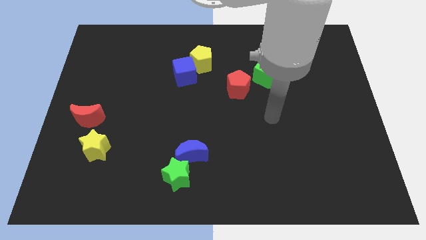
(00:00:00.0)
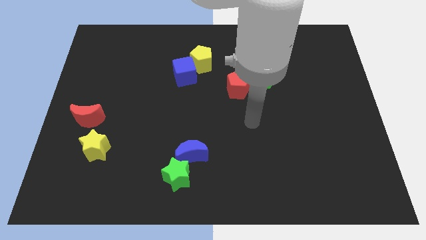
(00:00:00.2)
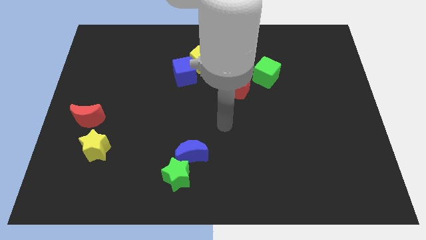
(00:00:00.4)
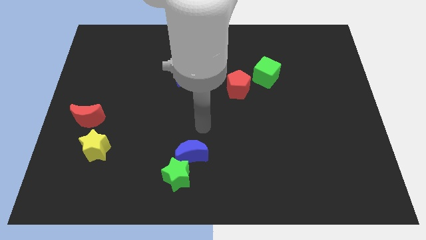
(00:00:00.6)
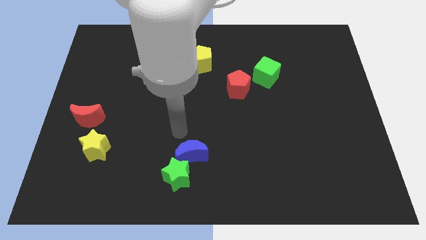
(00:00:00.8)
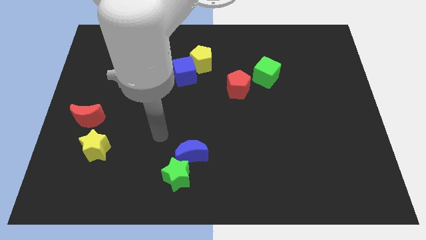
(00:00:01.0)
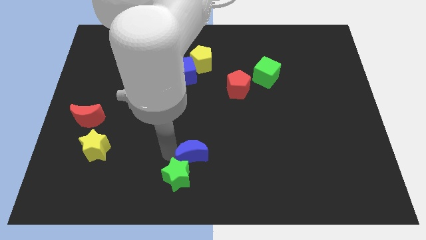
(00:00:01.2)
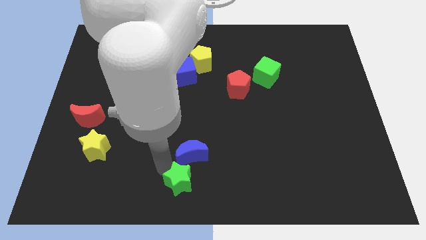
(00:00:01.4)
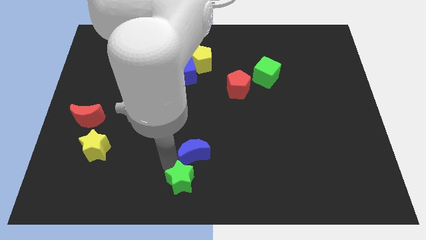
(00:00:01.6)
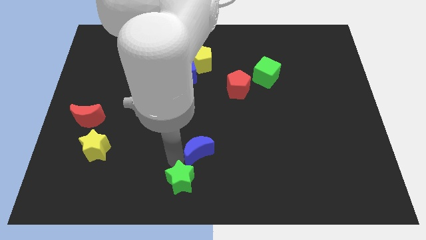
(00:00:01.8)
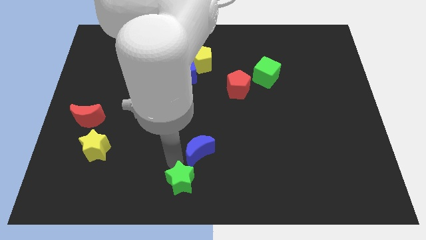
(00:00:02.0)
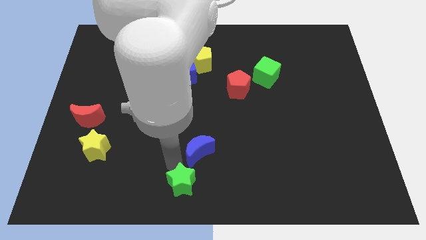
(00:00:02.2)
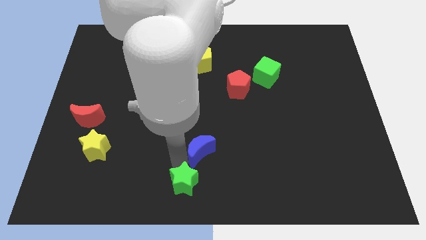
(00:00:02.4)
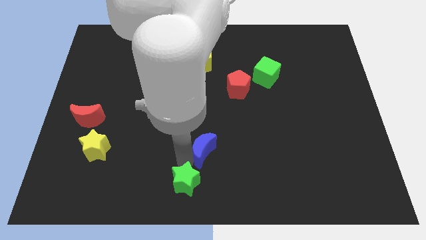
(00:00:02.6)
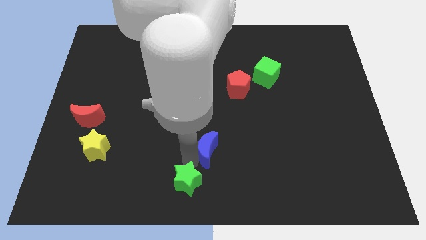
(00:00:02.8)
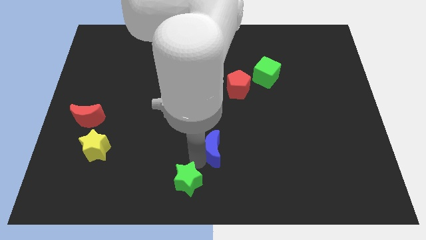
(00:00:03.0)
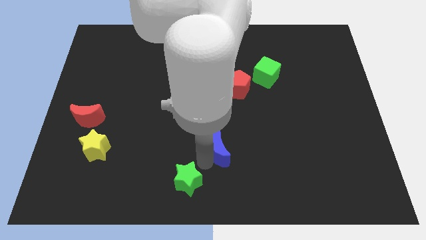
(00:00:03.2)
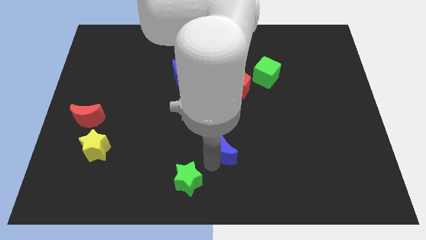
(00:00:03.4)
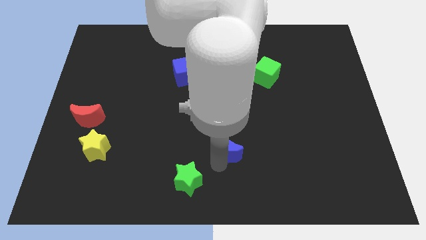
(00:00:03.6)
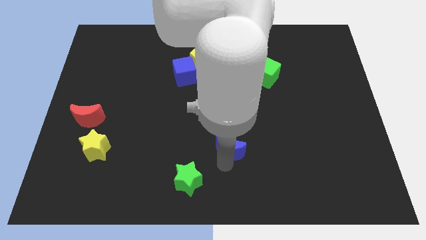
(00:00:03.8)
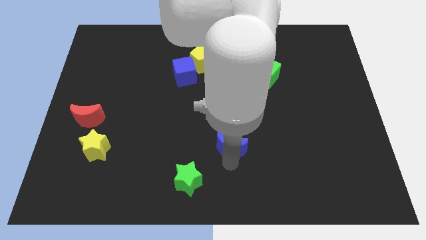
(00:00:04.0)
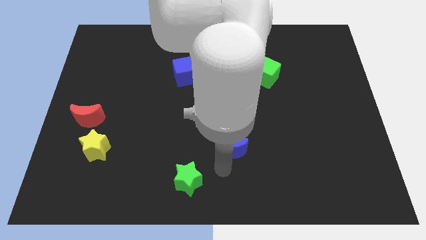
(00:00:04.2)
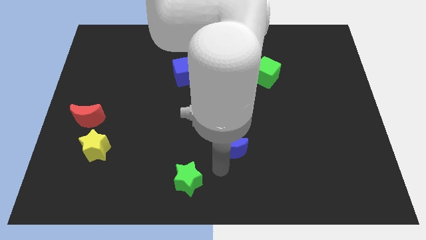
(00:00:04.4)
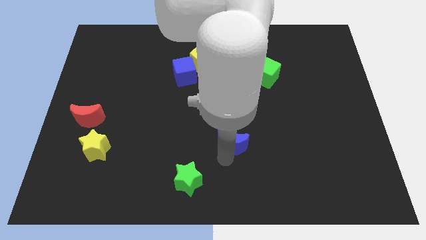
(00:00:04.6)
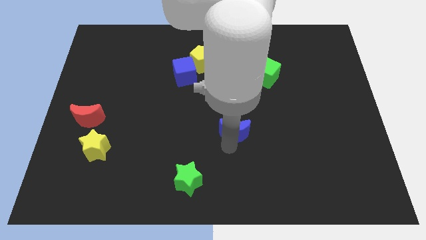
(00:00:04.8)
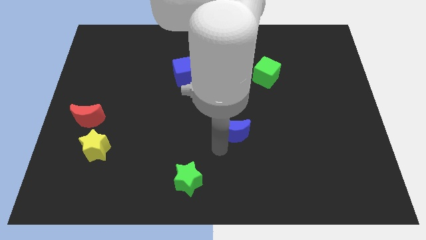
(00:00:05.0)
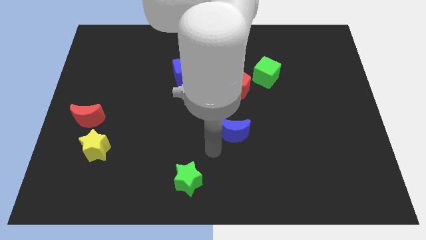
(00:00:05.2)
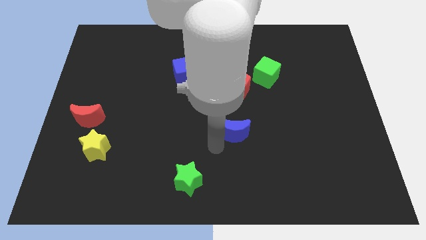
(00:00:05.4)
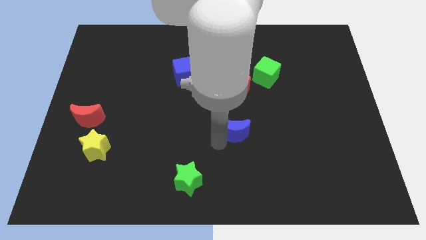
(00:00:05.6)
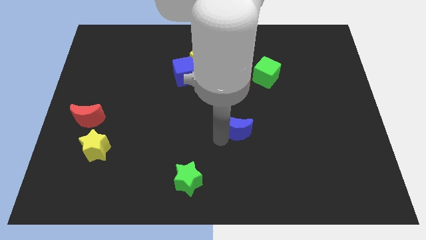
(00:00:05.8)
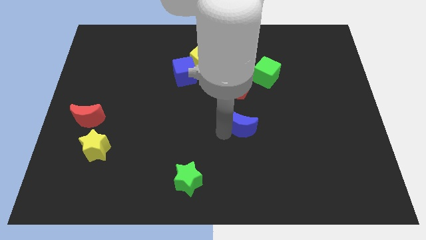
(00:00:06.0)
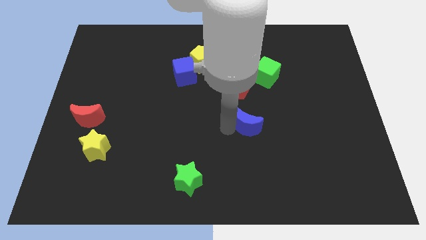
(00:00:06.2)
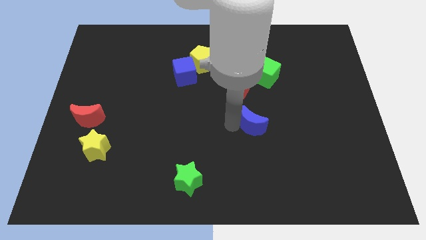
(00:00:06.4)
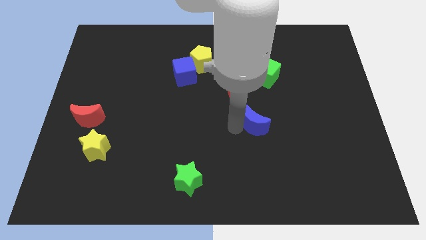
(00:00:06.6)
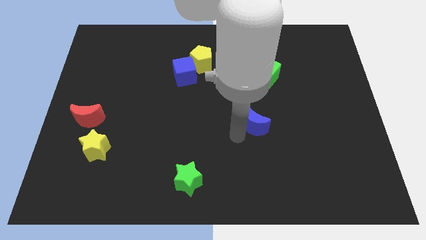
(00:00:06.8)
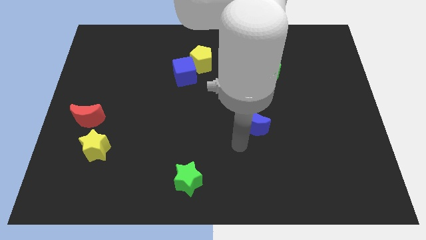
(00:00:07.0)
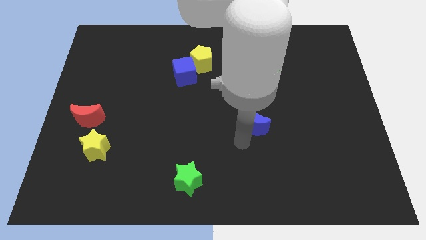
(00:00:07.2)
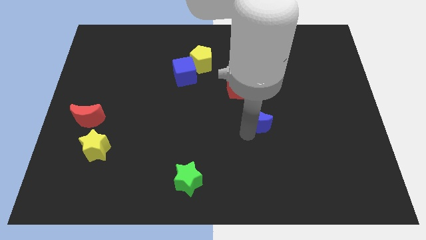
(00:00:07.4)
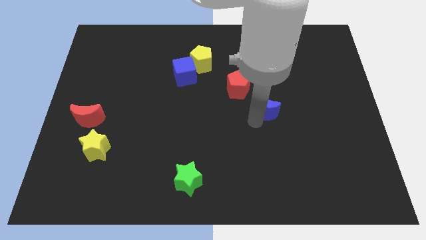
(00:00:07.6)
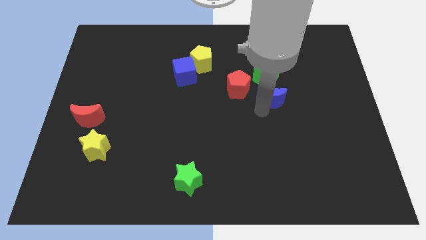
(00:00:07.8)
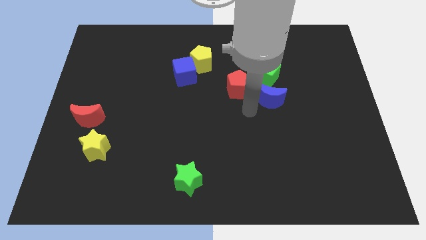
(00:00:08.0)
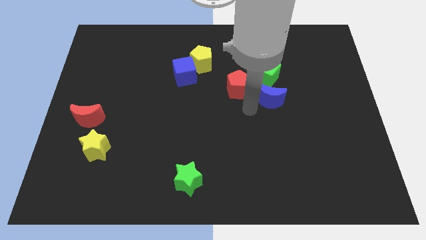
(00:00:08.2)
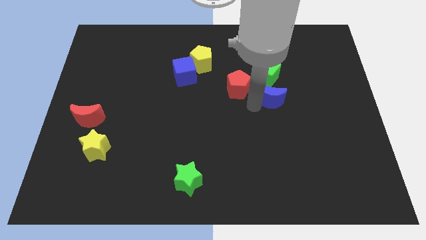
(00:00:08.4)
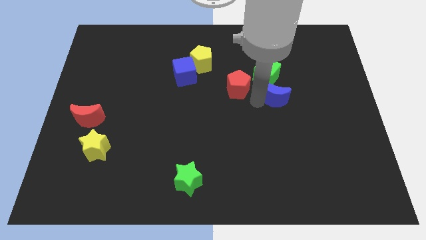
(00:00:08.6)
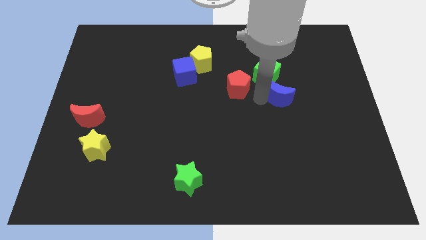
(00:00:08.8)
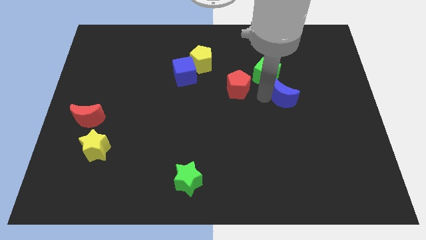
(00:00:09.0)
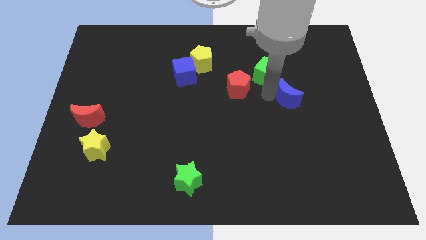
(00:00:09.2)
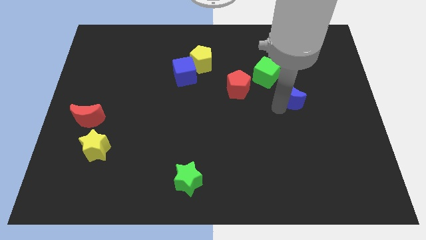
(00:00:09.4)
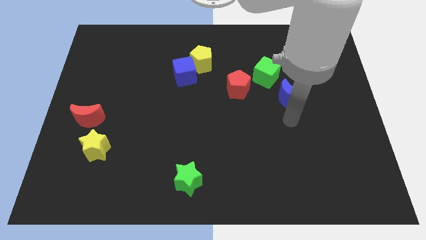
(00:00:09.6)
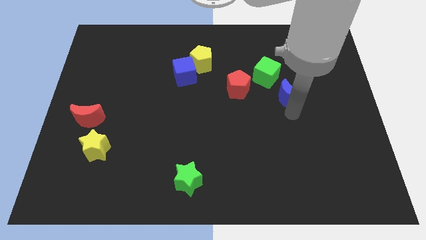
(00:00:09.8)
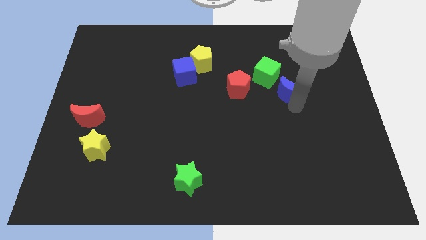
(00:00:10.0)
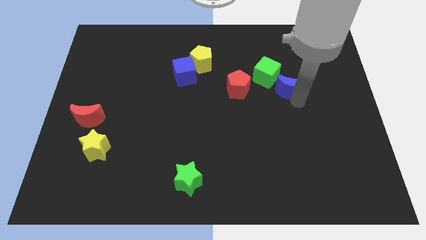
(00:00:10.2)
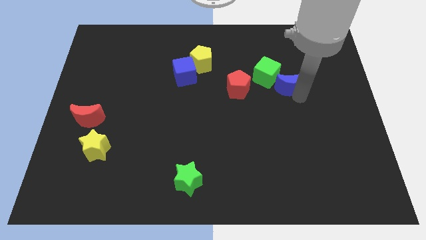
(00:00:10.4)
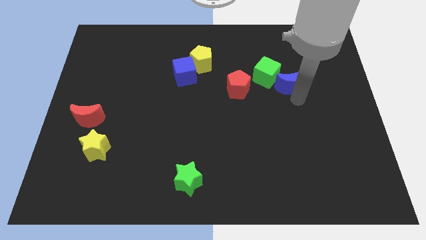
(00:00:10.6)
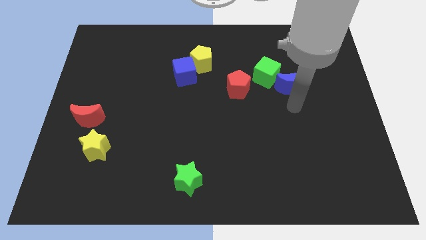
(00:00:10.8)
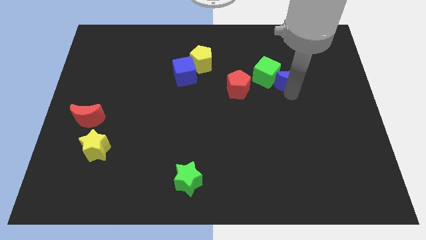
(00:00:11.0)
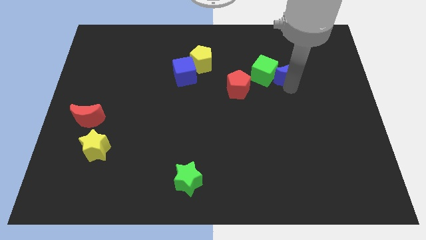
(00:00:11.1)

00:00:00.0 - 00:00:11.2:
push the blue moon to the top right side of the green cube

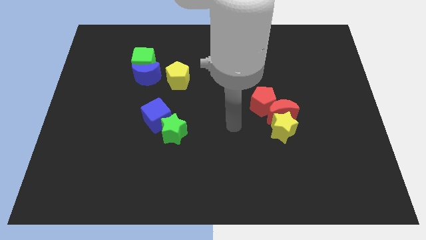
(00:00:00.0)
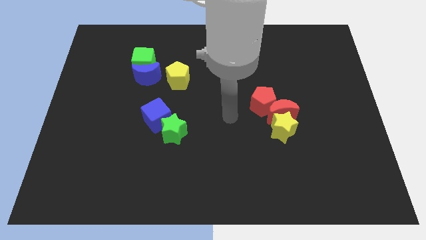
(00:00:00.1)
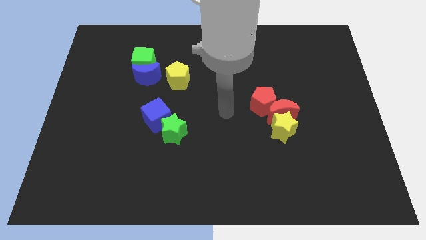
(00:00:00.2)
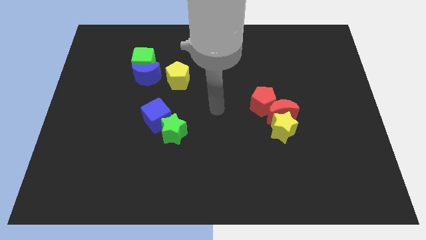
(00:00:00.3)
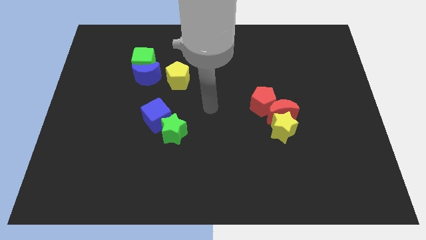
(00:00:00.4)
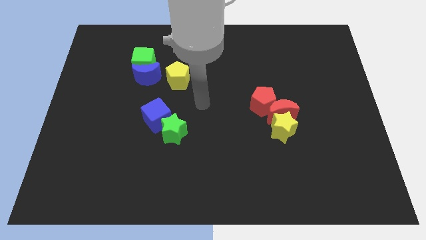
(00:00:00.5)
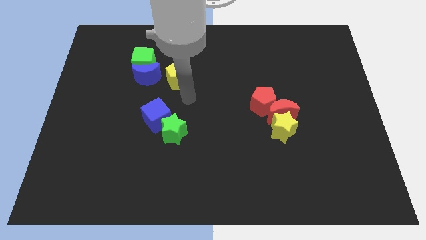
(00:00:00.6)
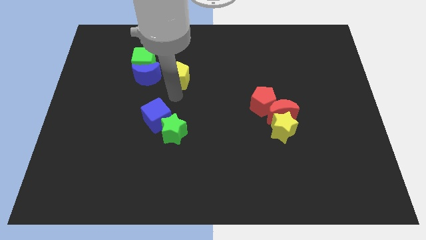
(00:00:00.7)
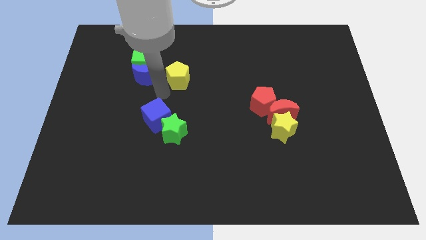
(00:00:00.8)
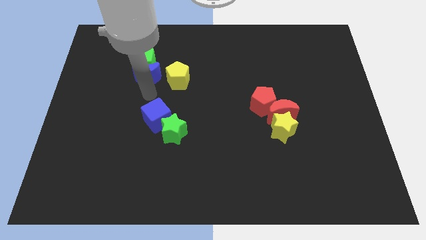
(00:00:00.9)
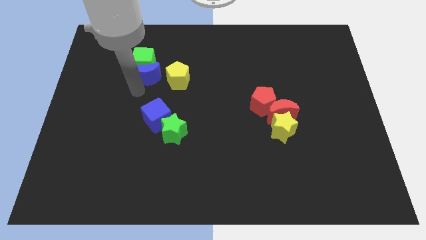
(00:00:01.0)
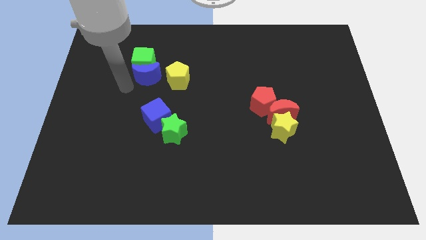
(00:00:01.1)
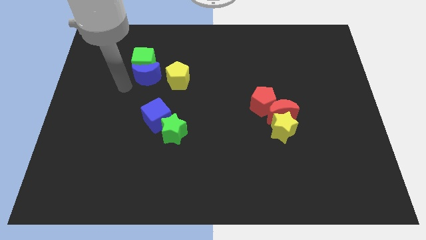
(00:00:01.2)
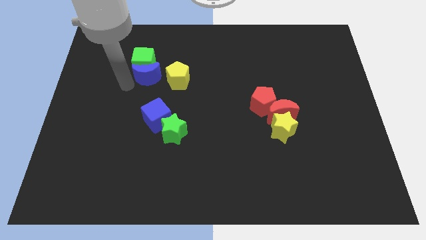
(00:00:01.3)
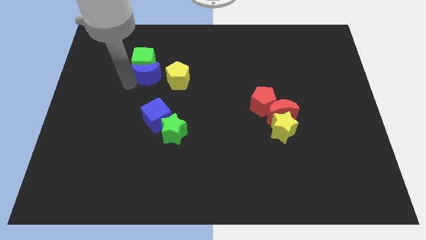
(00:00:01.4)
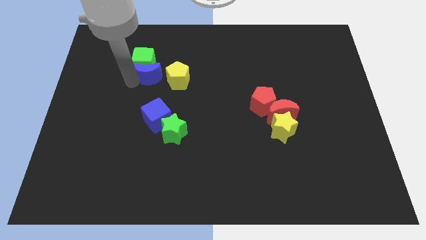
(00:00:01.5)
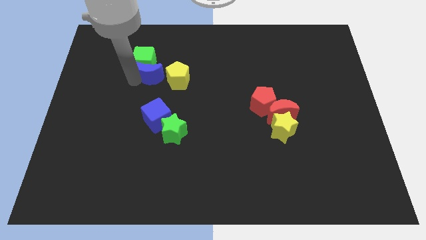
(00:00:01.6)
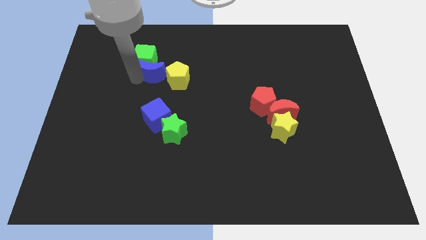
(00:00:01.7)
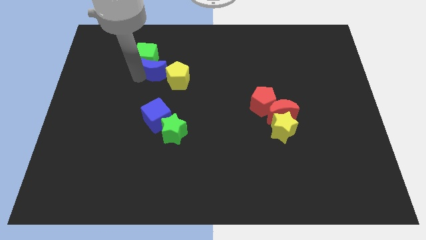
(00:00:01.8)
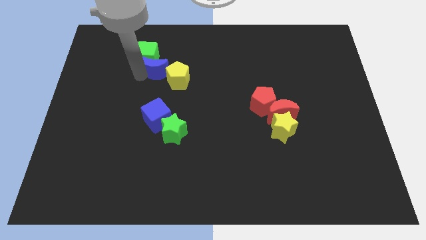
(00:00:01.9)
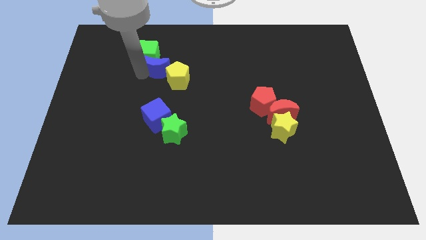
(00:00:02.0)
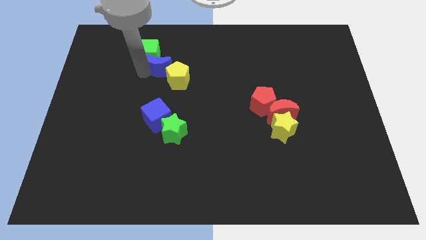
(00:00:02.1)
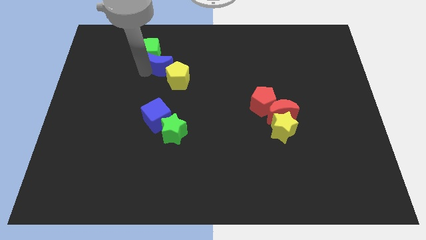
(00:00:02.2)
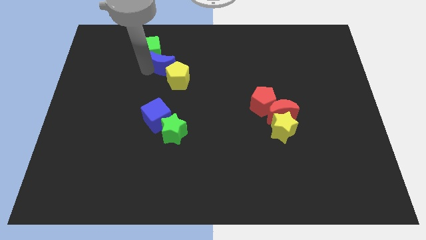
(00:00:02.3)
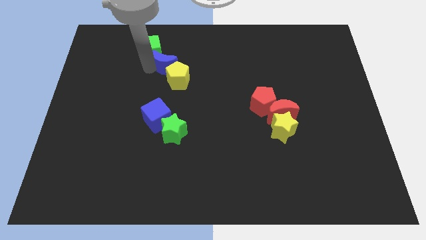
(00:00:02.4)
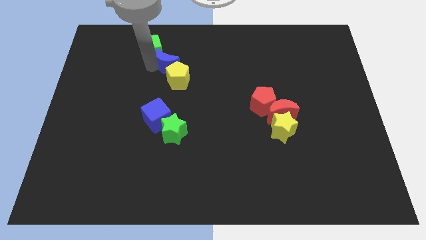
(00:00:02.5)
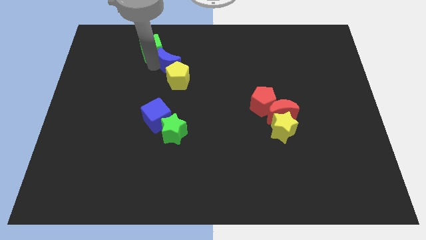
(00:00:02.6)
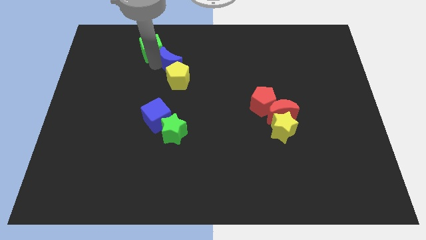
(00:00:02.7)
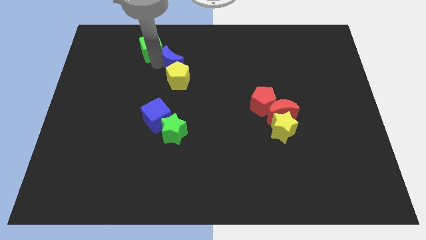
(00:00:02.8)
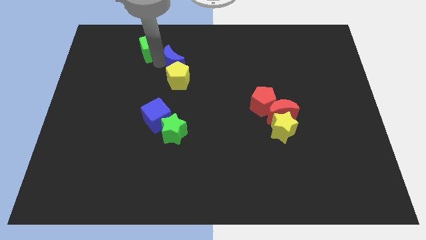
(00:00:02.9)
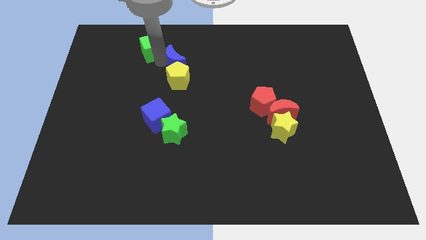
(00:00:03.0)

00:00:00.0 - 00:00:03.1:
slide the blue moon to the top right of the yellow pentagon
